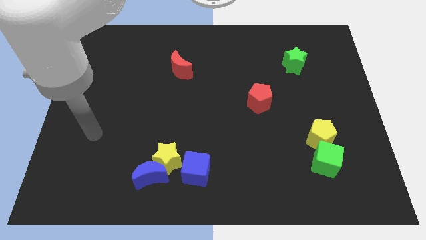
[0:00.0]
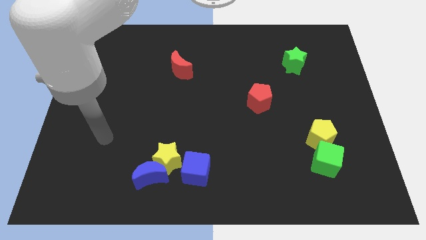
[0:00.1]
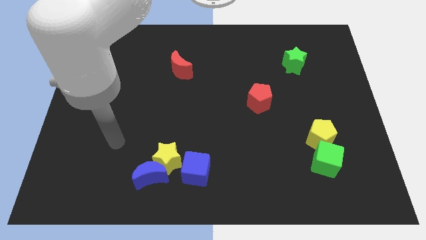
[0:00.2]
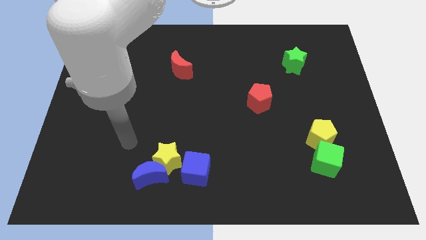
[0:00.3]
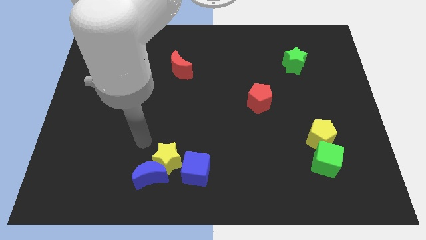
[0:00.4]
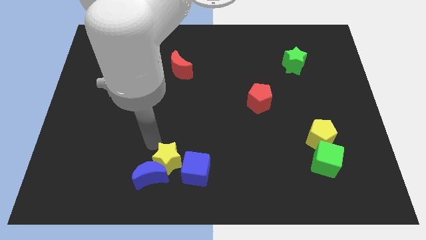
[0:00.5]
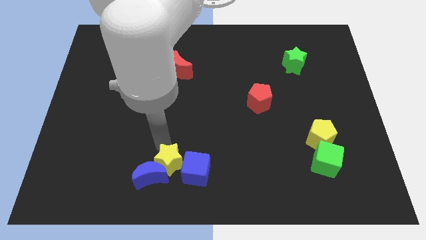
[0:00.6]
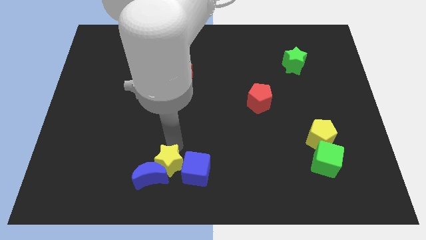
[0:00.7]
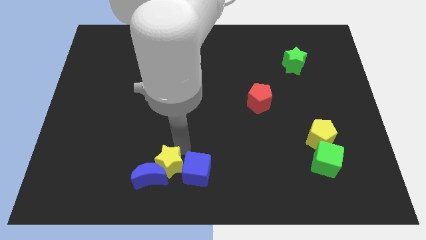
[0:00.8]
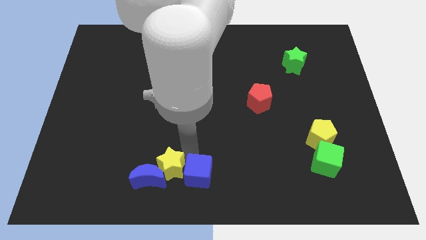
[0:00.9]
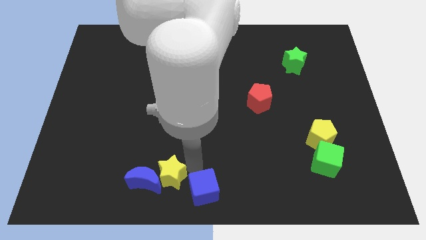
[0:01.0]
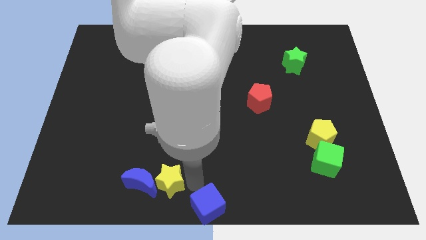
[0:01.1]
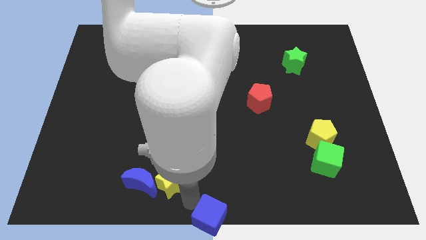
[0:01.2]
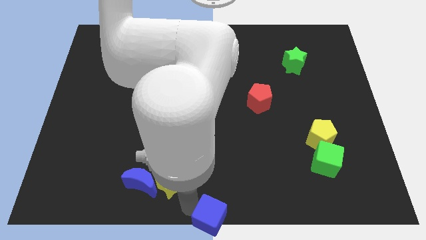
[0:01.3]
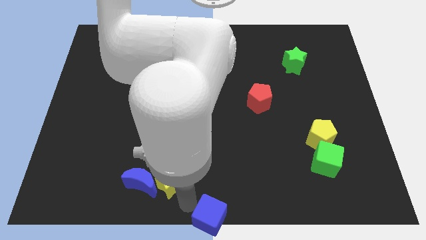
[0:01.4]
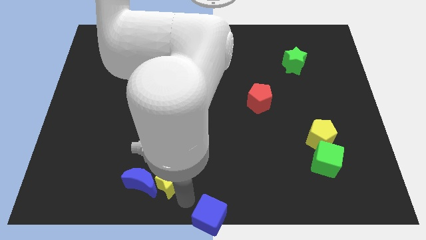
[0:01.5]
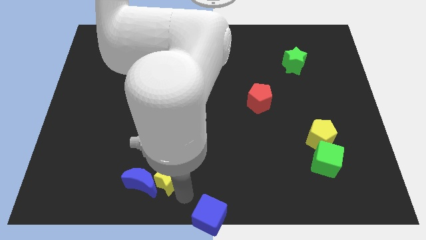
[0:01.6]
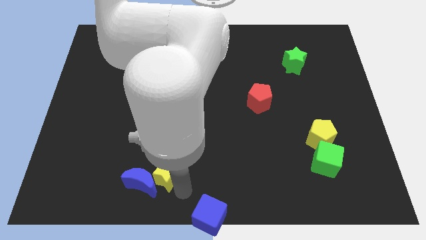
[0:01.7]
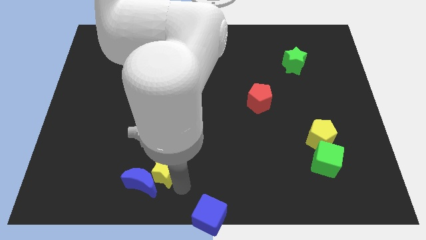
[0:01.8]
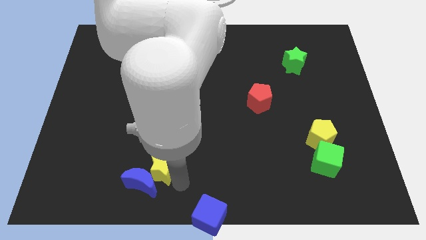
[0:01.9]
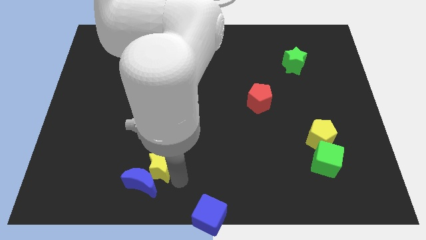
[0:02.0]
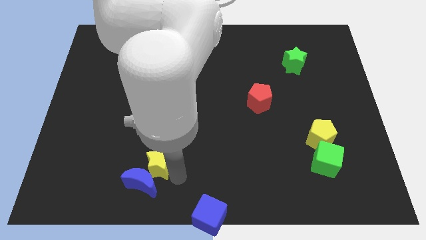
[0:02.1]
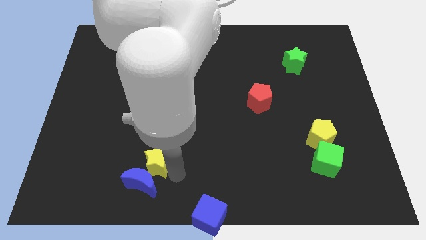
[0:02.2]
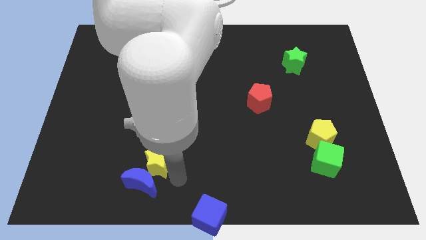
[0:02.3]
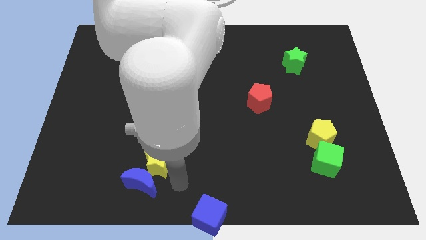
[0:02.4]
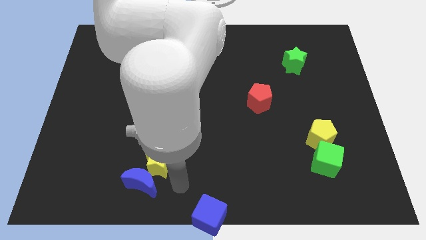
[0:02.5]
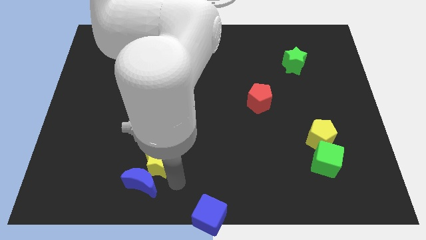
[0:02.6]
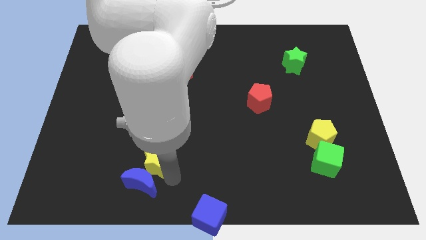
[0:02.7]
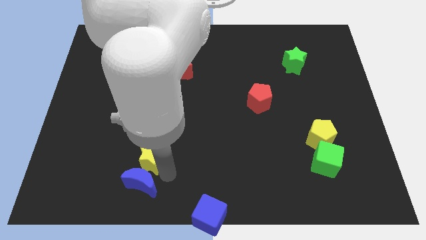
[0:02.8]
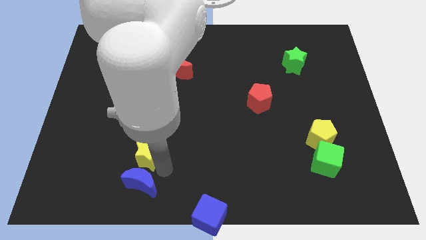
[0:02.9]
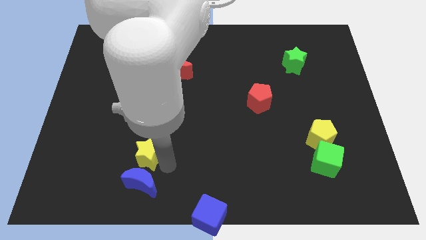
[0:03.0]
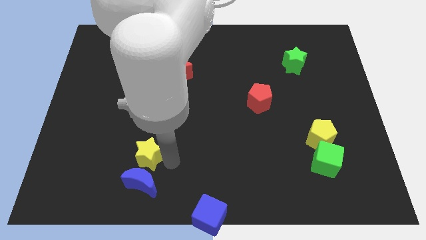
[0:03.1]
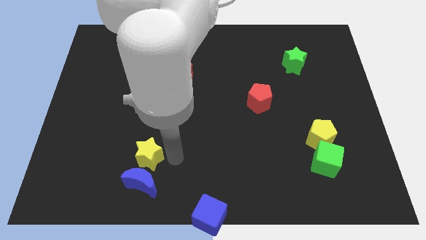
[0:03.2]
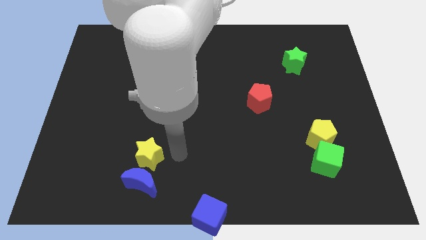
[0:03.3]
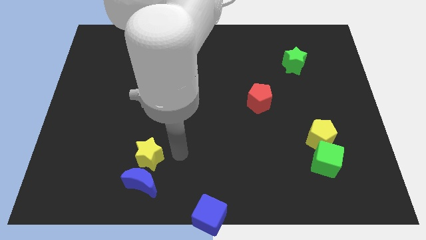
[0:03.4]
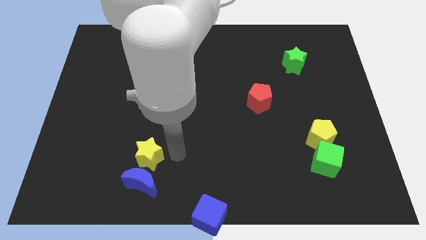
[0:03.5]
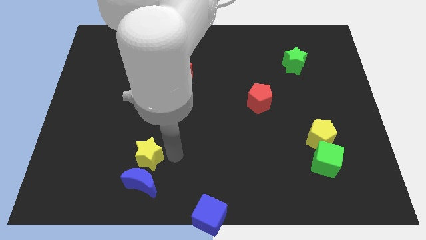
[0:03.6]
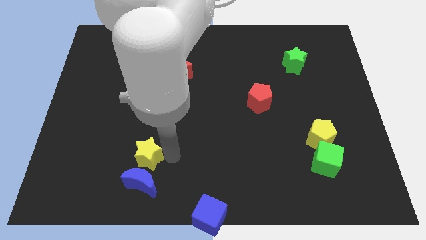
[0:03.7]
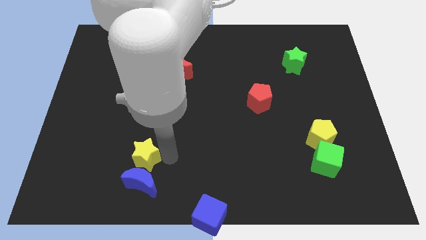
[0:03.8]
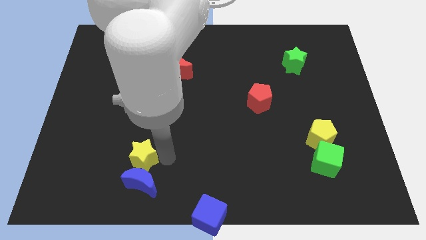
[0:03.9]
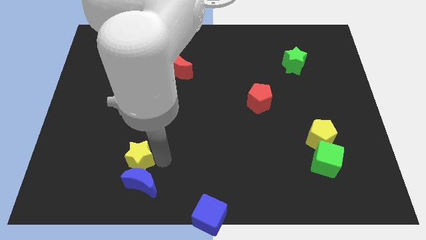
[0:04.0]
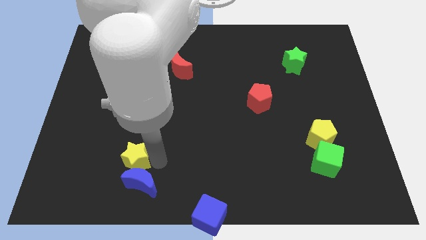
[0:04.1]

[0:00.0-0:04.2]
slightly push the yellow star to the left

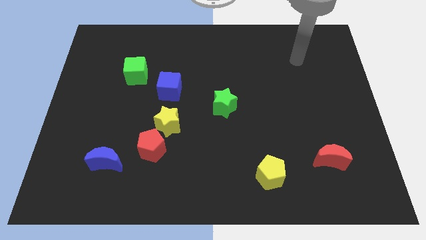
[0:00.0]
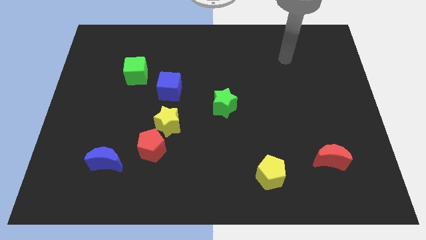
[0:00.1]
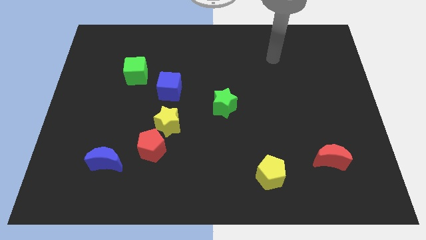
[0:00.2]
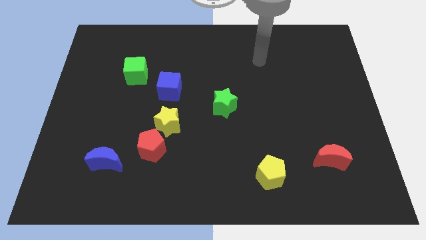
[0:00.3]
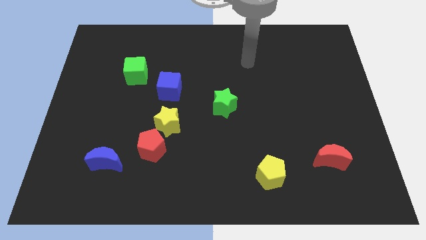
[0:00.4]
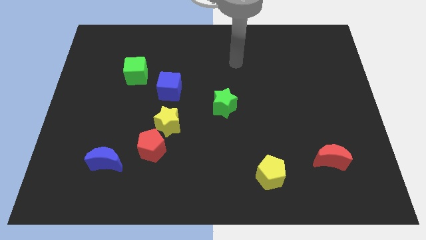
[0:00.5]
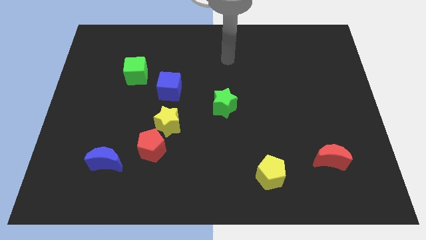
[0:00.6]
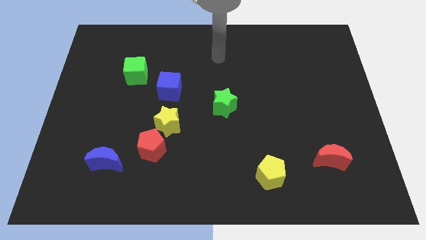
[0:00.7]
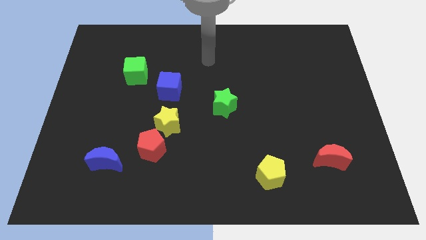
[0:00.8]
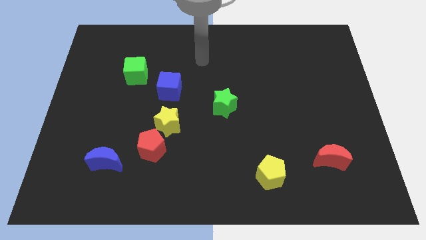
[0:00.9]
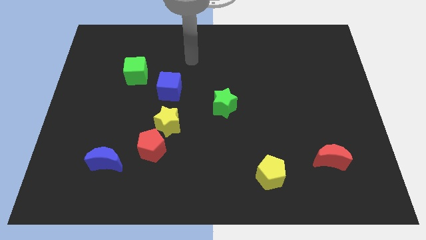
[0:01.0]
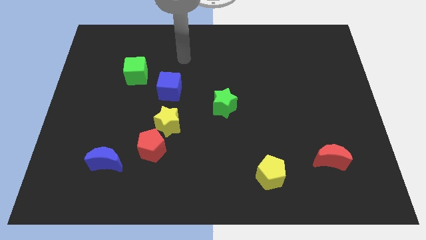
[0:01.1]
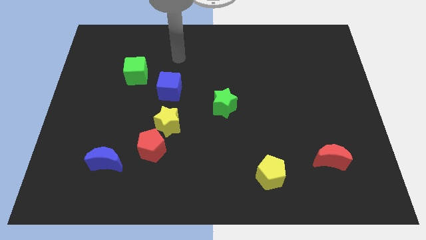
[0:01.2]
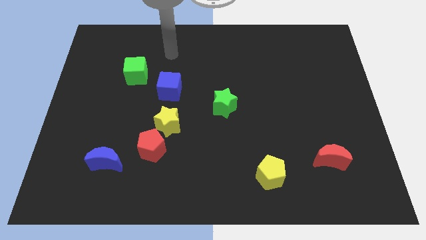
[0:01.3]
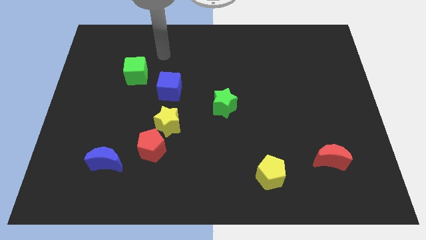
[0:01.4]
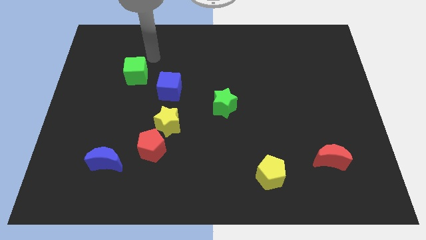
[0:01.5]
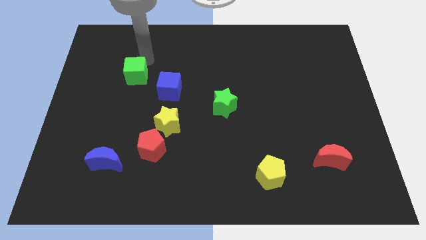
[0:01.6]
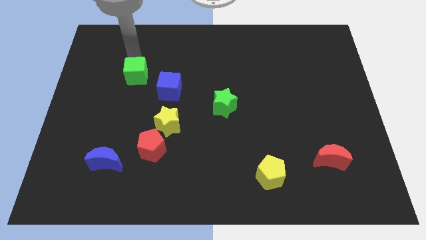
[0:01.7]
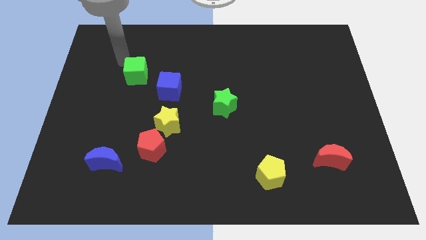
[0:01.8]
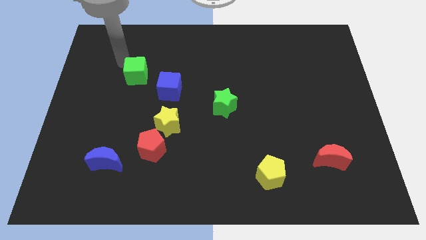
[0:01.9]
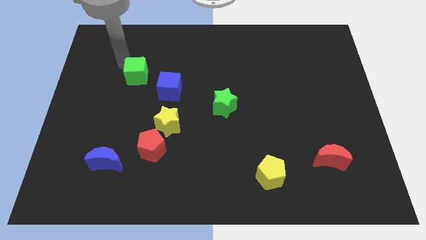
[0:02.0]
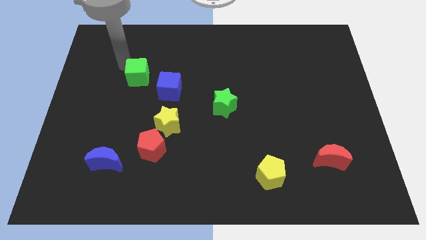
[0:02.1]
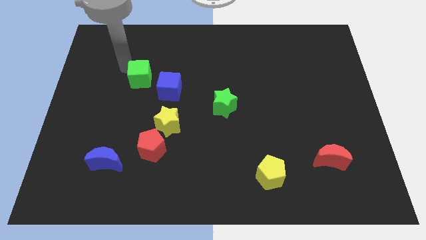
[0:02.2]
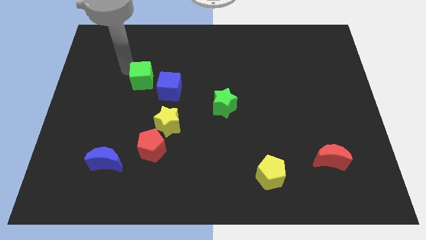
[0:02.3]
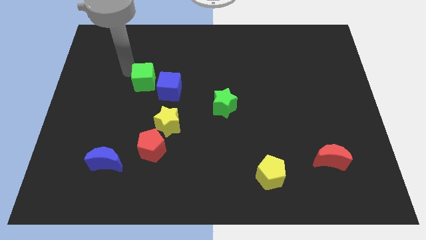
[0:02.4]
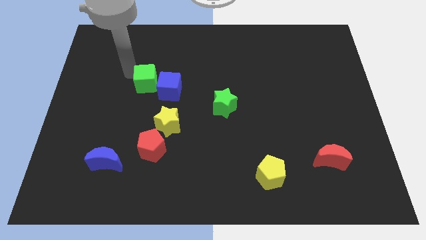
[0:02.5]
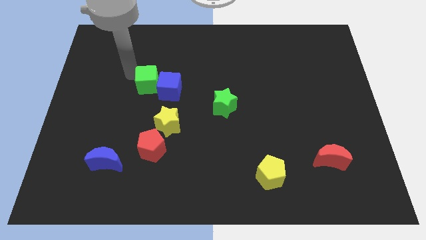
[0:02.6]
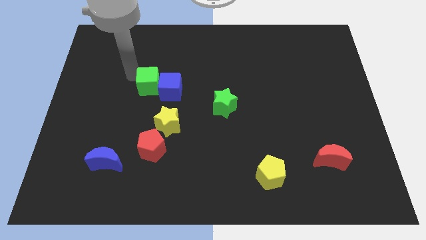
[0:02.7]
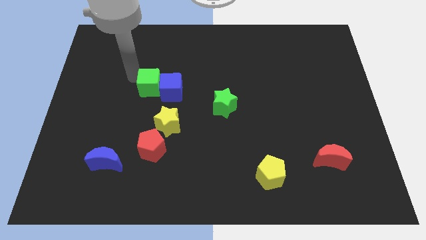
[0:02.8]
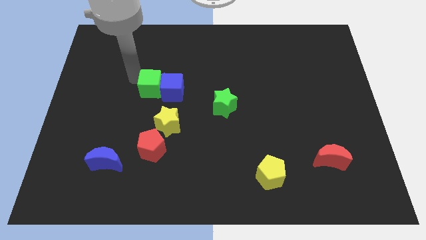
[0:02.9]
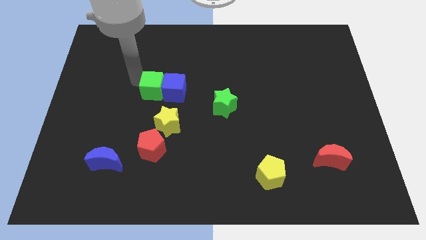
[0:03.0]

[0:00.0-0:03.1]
slightly push the green cube downwards and then to the right

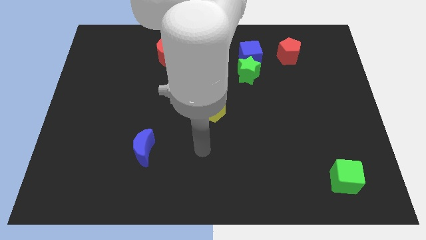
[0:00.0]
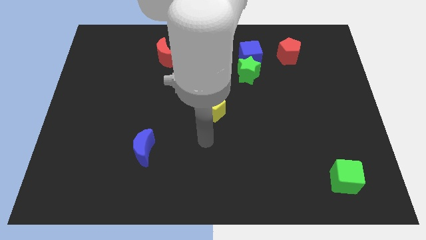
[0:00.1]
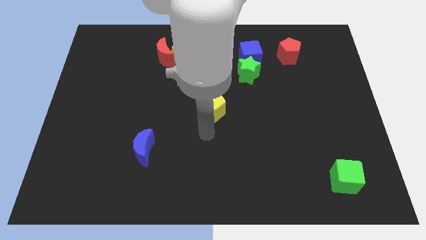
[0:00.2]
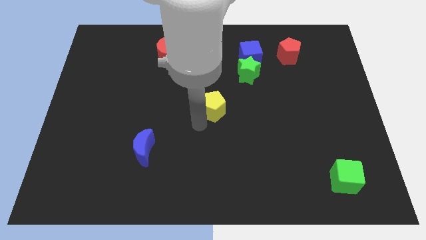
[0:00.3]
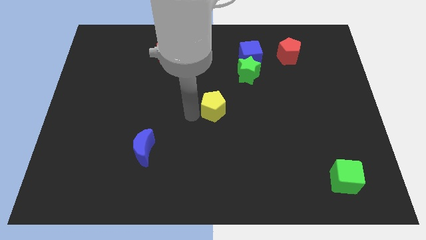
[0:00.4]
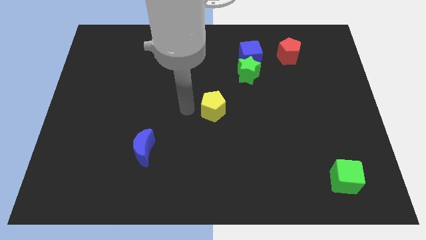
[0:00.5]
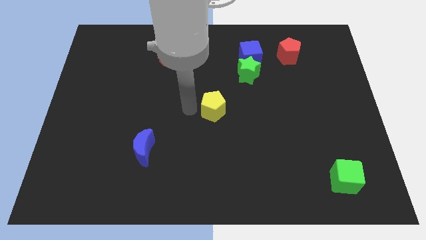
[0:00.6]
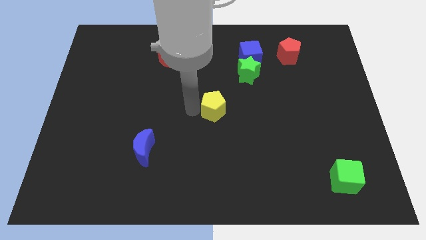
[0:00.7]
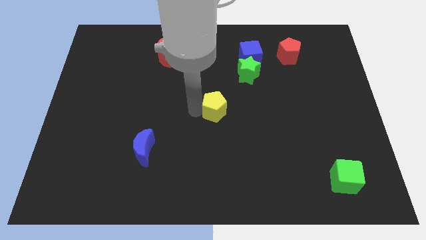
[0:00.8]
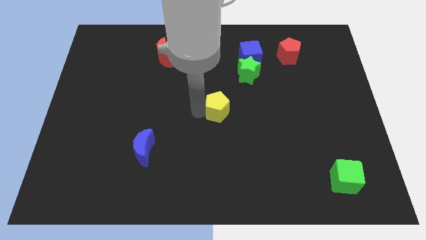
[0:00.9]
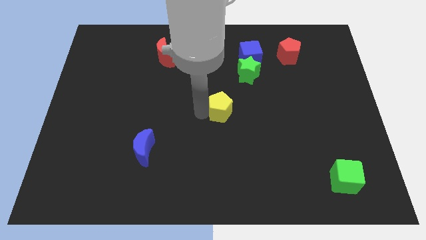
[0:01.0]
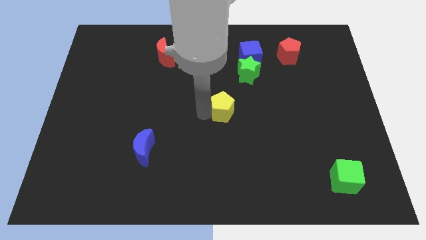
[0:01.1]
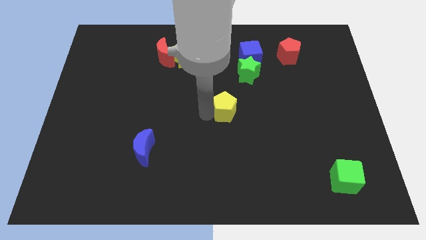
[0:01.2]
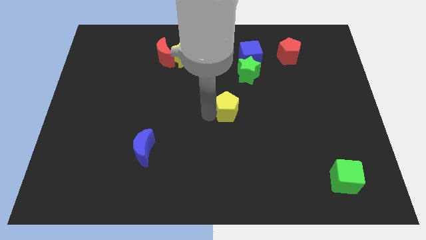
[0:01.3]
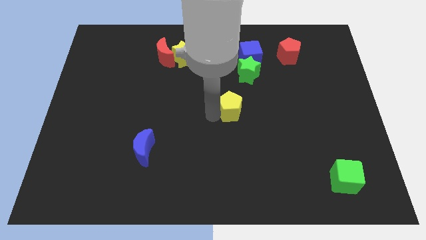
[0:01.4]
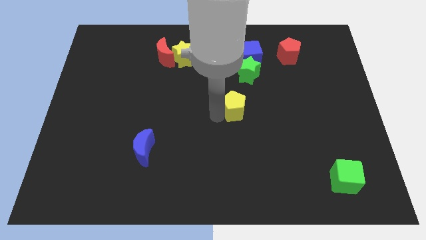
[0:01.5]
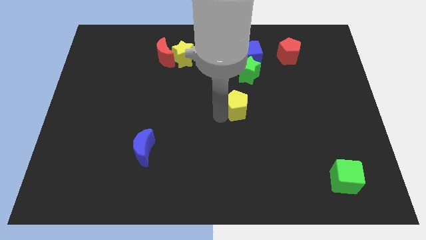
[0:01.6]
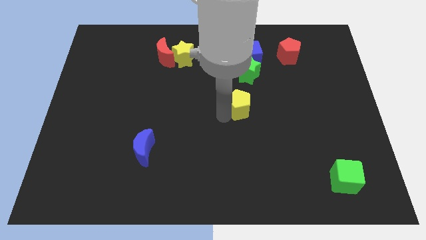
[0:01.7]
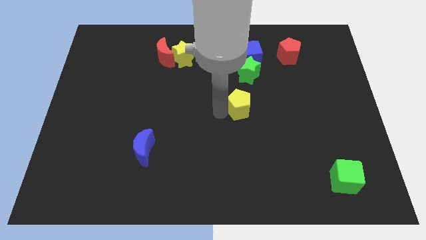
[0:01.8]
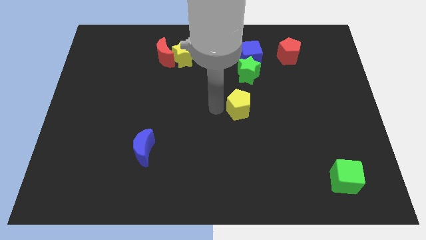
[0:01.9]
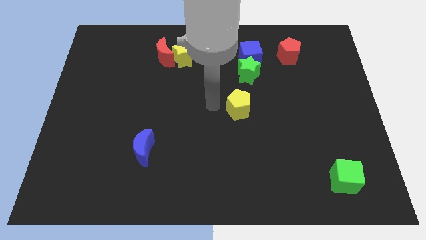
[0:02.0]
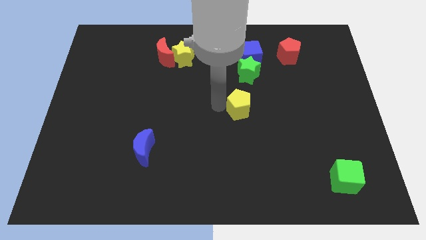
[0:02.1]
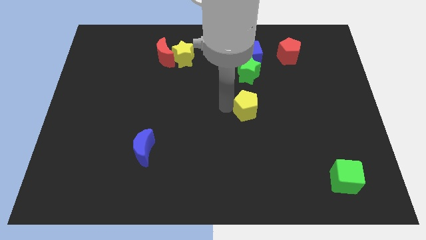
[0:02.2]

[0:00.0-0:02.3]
push the yellow pentagon right a little bit
